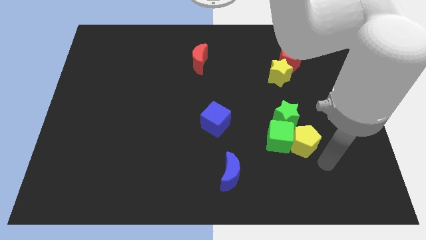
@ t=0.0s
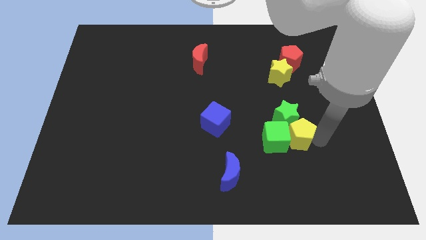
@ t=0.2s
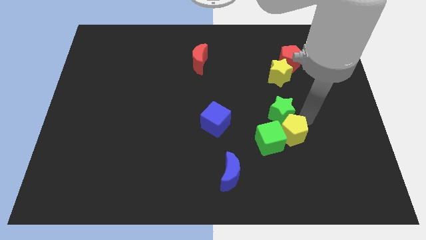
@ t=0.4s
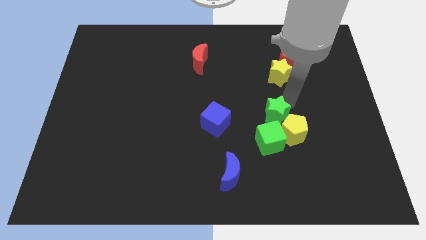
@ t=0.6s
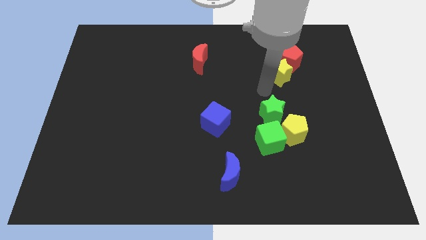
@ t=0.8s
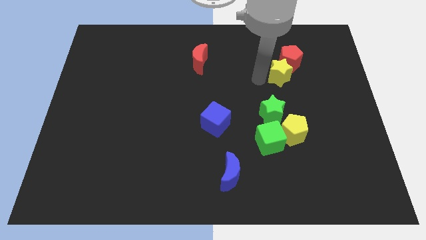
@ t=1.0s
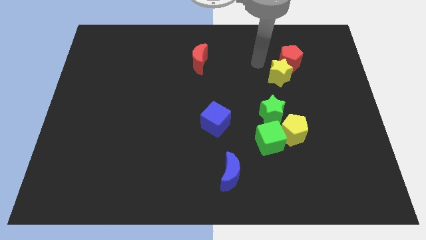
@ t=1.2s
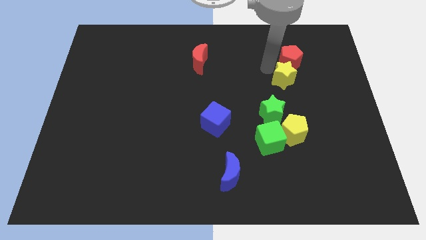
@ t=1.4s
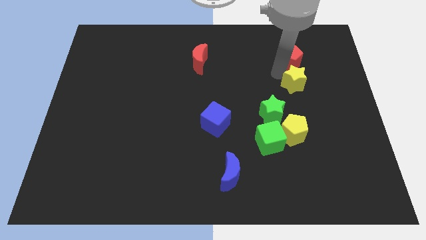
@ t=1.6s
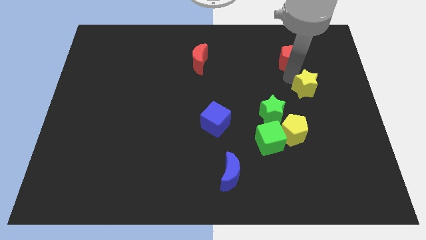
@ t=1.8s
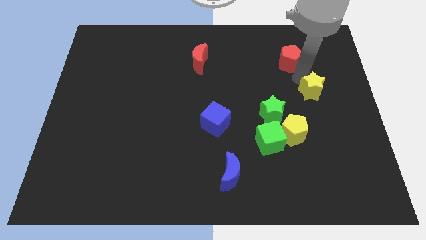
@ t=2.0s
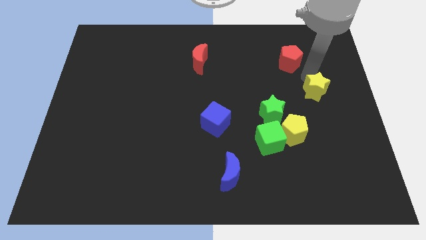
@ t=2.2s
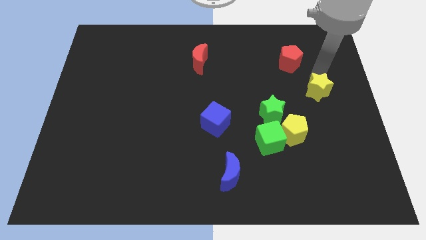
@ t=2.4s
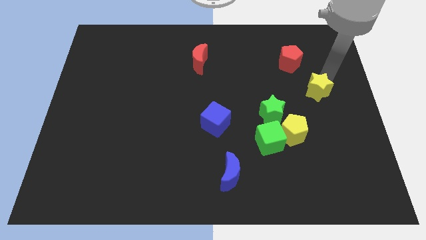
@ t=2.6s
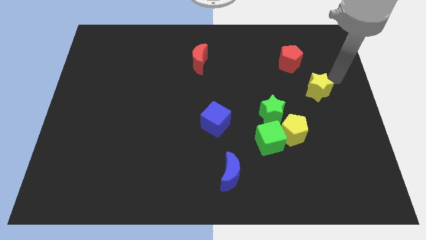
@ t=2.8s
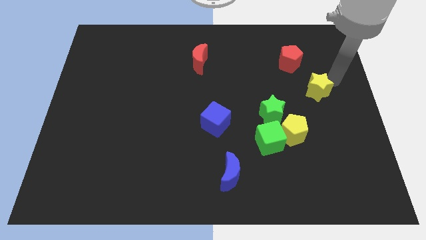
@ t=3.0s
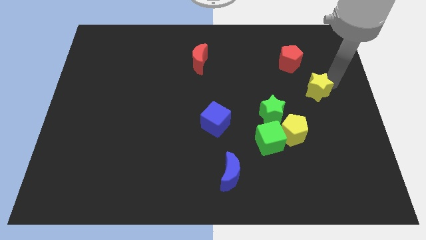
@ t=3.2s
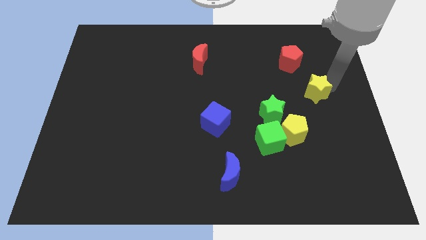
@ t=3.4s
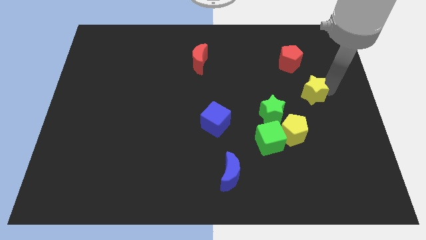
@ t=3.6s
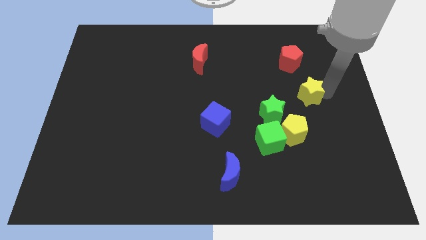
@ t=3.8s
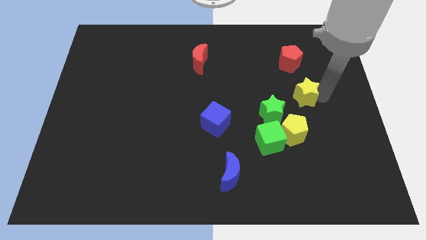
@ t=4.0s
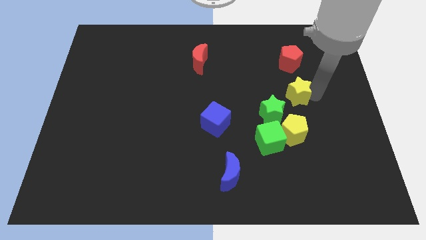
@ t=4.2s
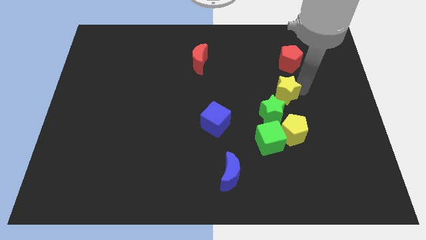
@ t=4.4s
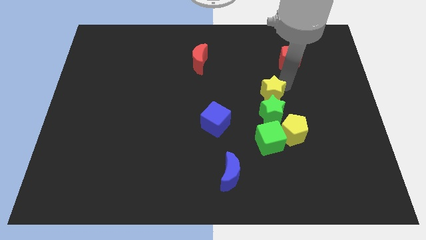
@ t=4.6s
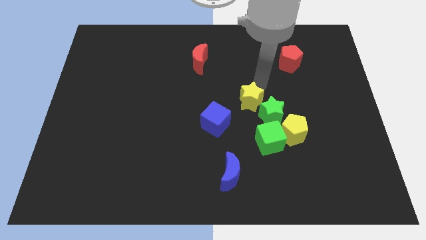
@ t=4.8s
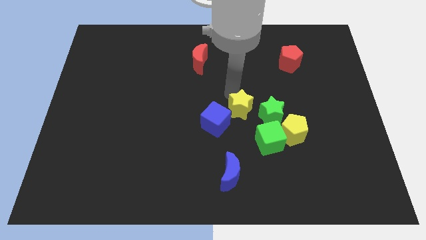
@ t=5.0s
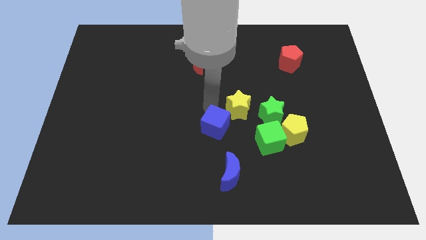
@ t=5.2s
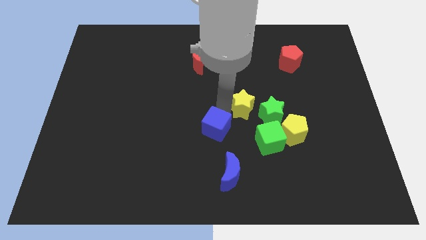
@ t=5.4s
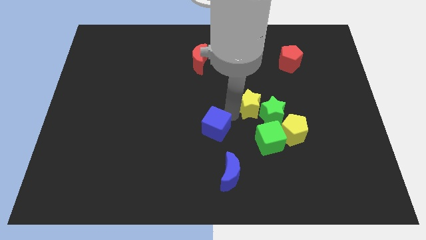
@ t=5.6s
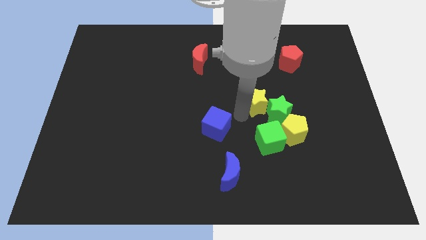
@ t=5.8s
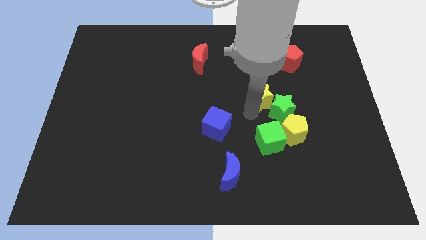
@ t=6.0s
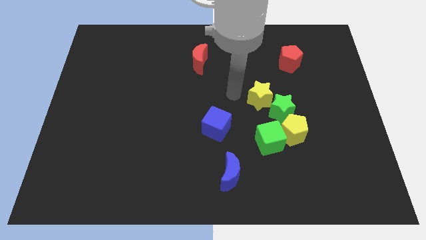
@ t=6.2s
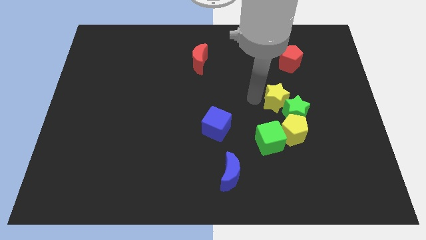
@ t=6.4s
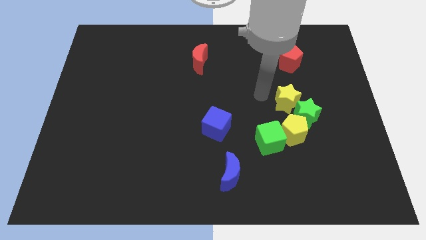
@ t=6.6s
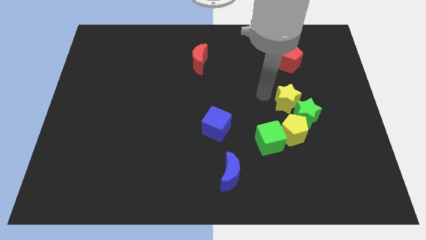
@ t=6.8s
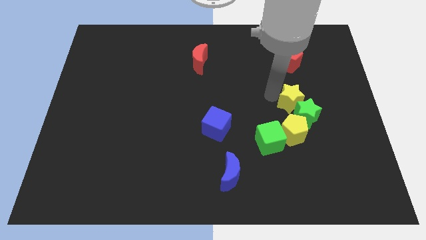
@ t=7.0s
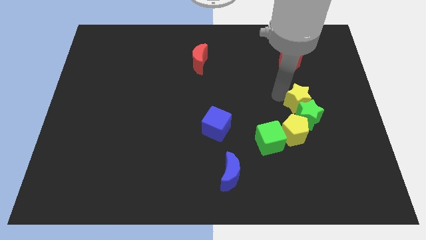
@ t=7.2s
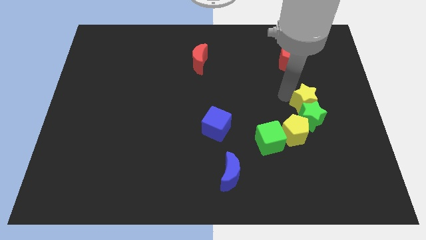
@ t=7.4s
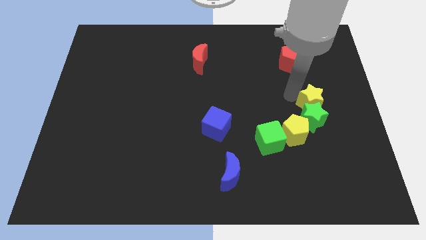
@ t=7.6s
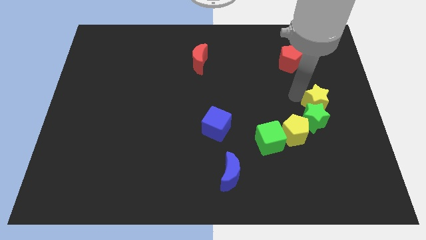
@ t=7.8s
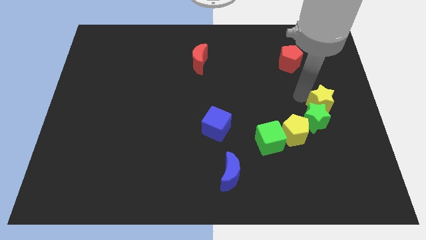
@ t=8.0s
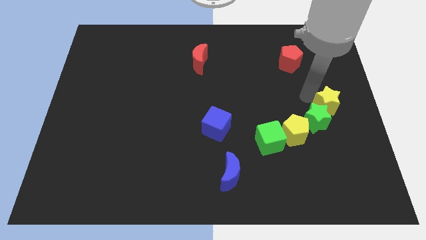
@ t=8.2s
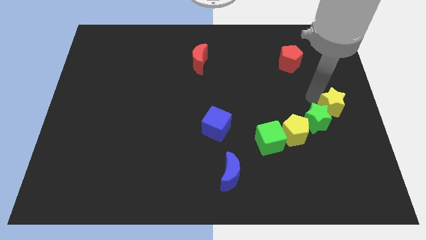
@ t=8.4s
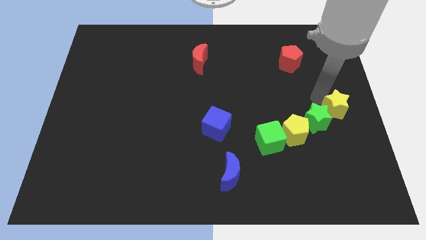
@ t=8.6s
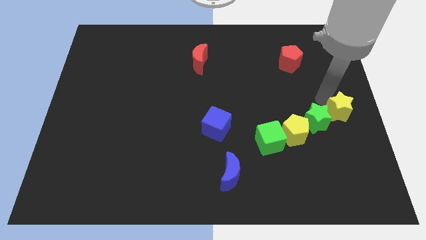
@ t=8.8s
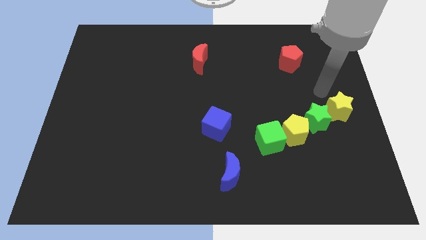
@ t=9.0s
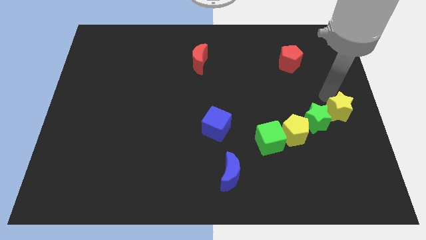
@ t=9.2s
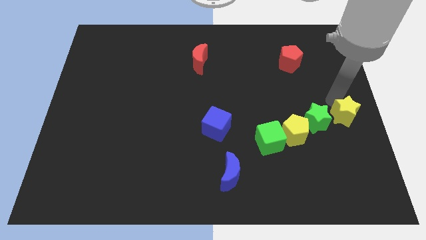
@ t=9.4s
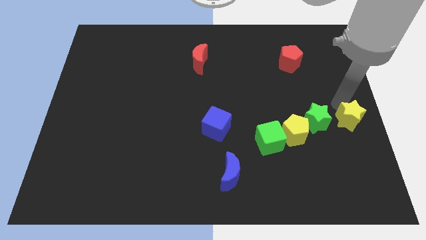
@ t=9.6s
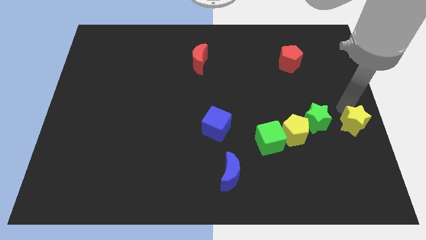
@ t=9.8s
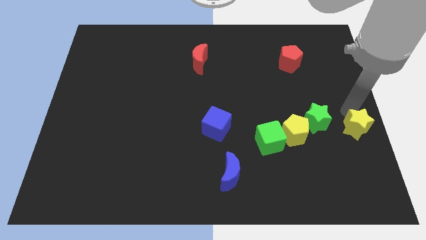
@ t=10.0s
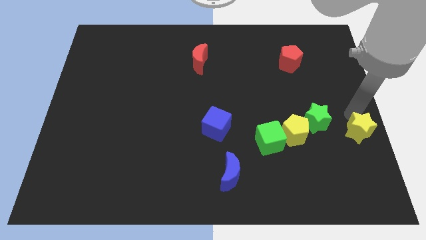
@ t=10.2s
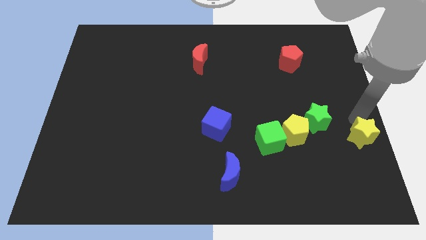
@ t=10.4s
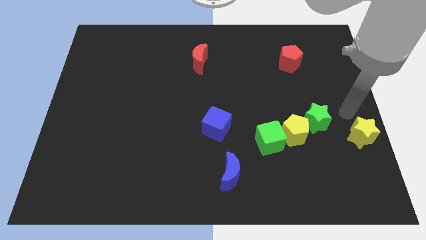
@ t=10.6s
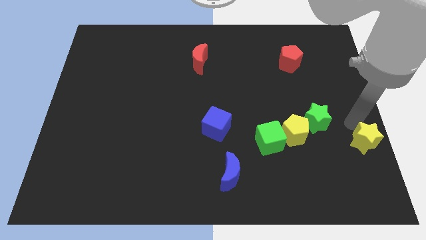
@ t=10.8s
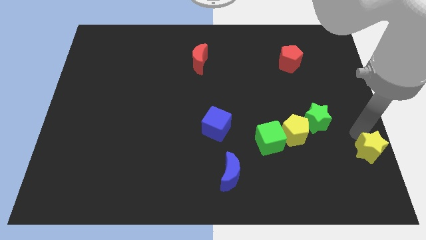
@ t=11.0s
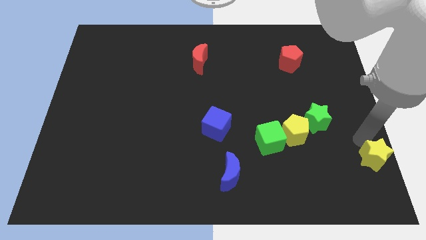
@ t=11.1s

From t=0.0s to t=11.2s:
slide the yellow star to the bottom right

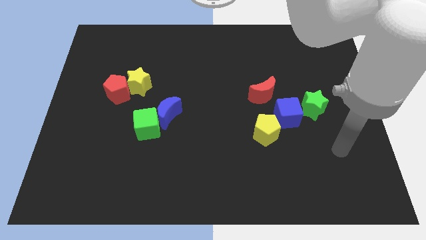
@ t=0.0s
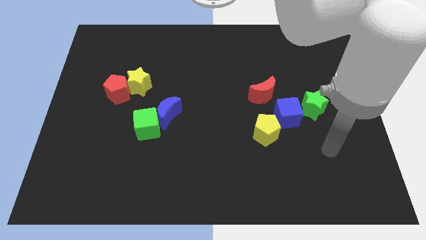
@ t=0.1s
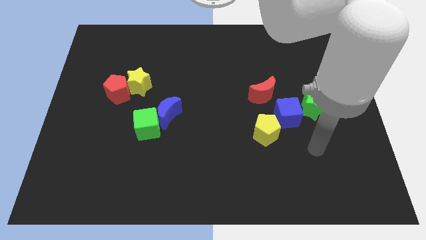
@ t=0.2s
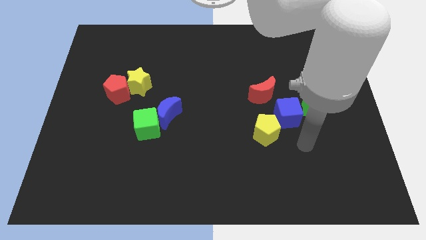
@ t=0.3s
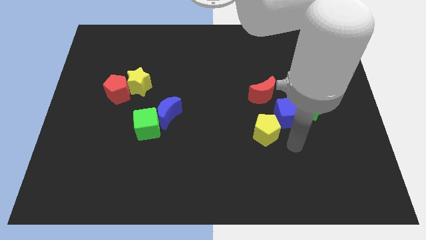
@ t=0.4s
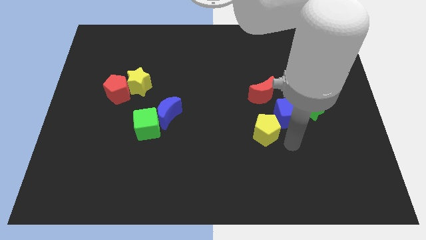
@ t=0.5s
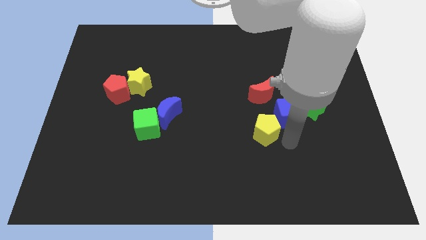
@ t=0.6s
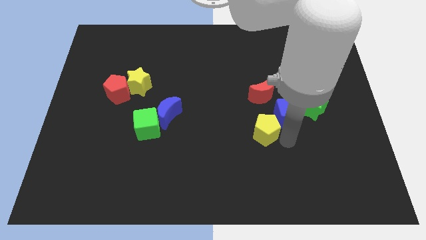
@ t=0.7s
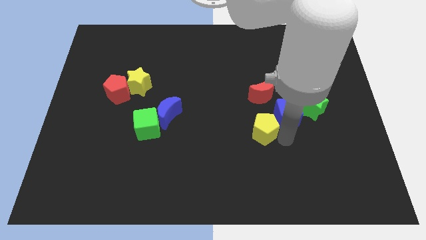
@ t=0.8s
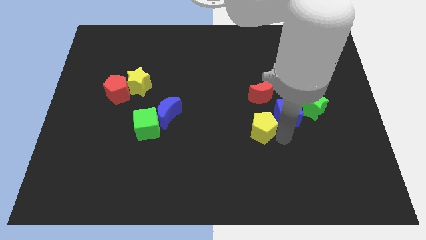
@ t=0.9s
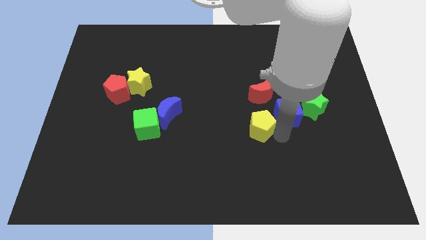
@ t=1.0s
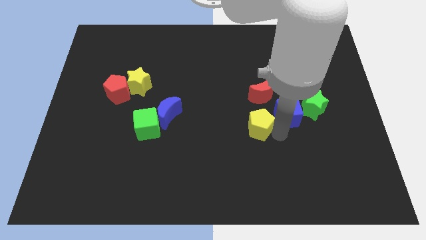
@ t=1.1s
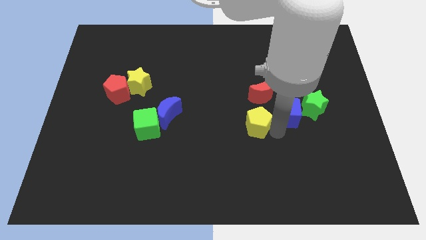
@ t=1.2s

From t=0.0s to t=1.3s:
move the yellow pentagon to the middle of the board

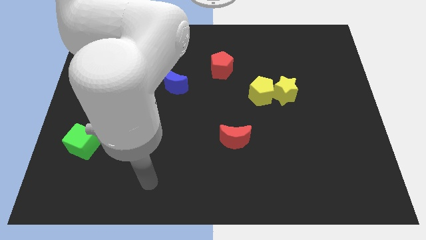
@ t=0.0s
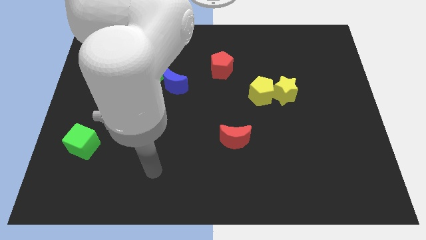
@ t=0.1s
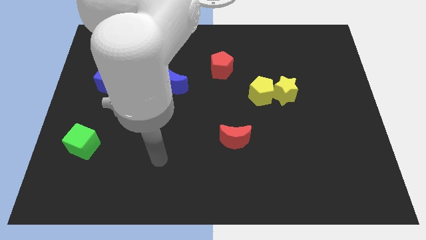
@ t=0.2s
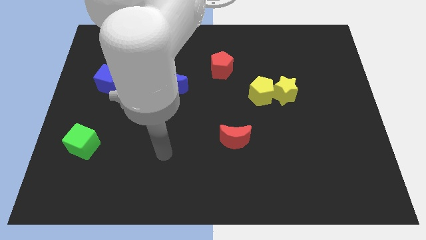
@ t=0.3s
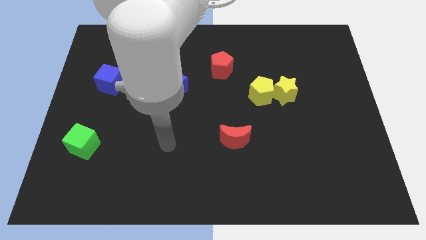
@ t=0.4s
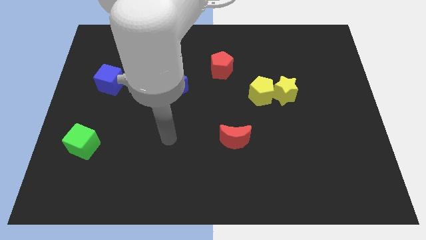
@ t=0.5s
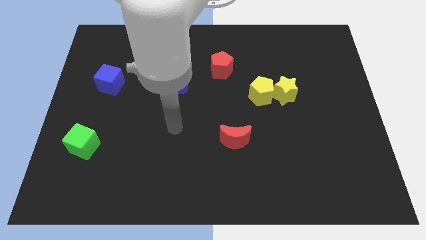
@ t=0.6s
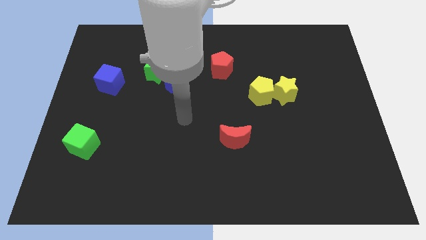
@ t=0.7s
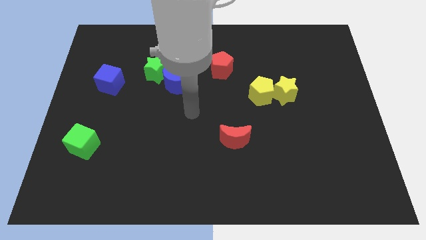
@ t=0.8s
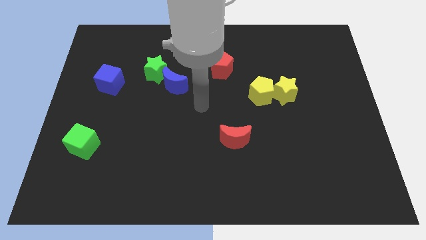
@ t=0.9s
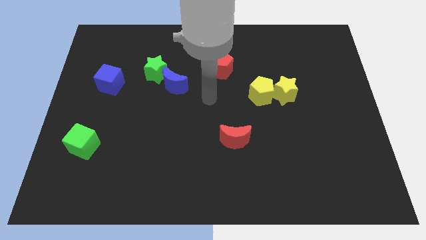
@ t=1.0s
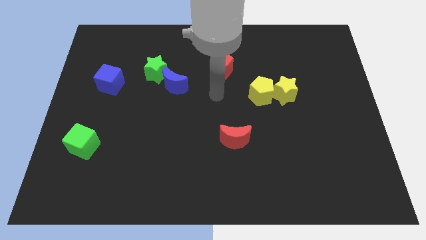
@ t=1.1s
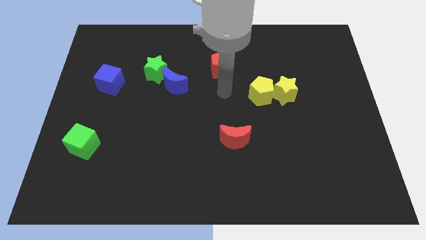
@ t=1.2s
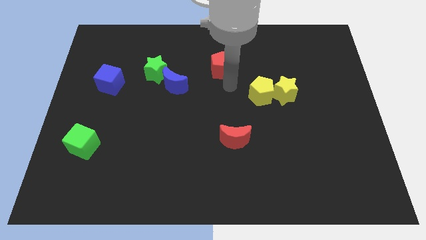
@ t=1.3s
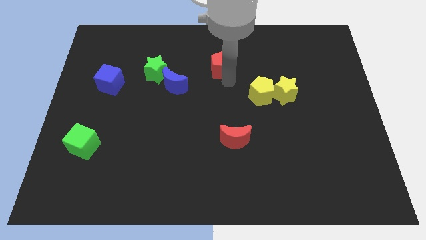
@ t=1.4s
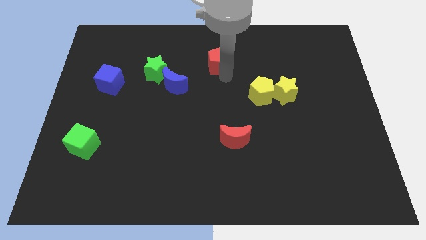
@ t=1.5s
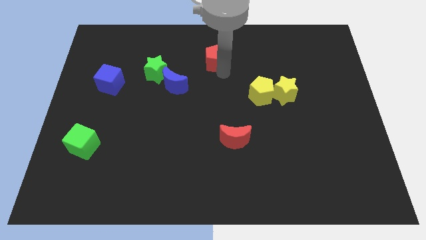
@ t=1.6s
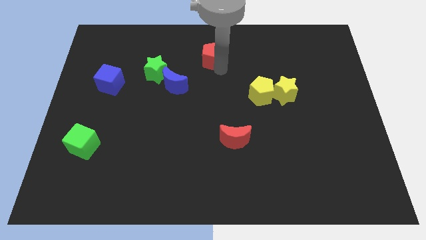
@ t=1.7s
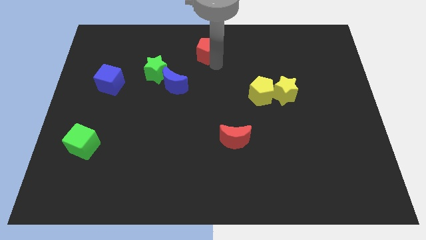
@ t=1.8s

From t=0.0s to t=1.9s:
slide the red pentagon to the towards your base
